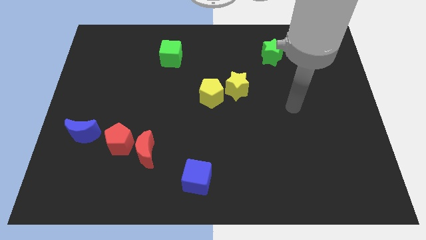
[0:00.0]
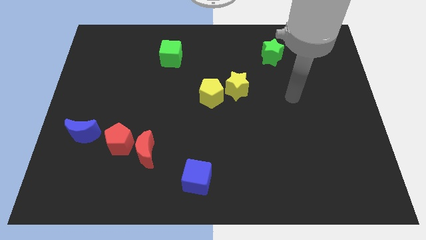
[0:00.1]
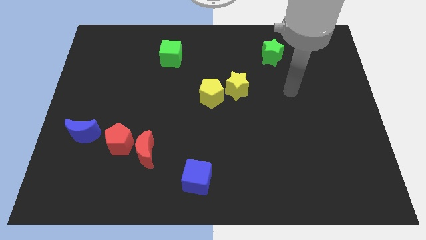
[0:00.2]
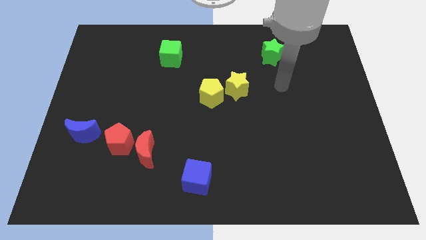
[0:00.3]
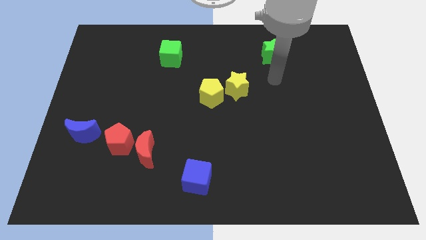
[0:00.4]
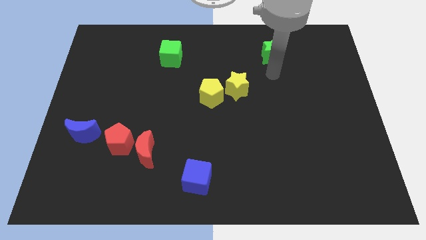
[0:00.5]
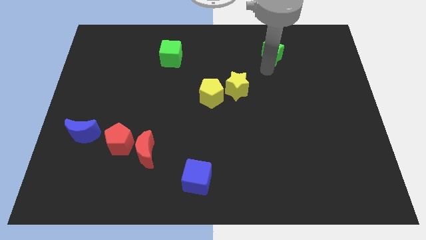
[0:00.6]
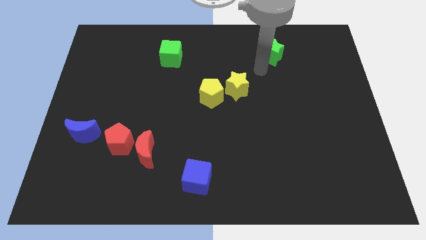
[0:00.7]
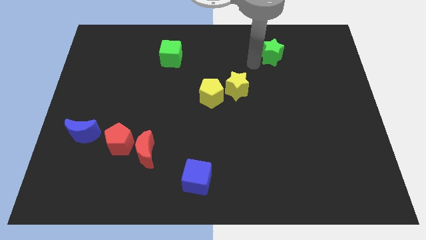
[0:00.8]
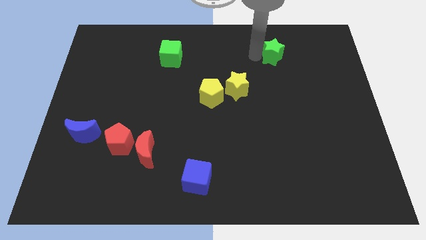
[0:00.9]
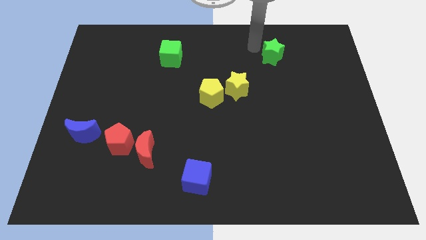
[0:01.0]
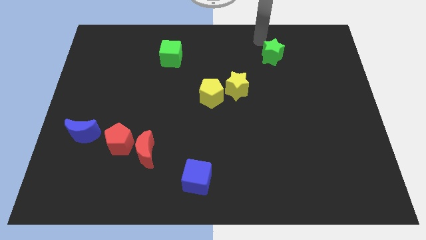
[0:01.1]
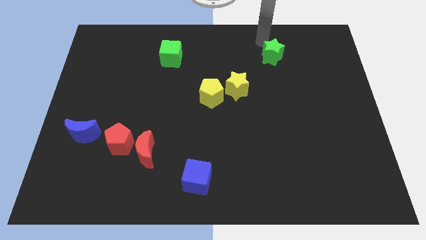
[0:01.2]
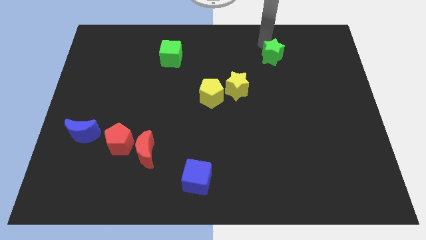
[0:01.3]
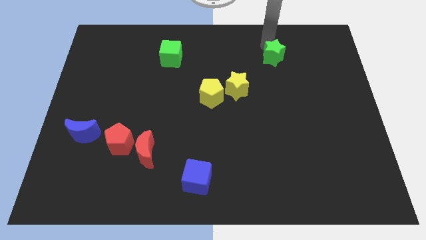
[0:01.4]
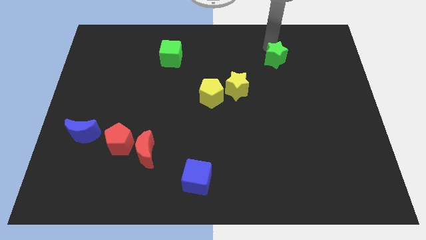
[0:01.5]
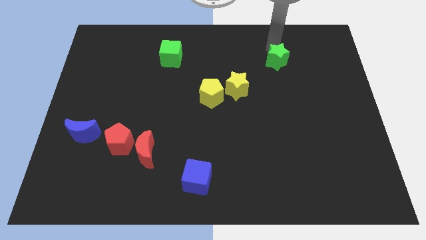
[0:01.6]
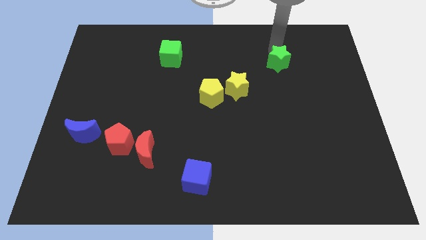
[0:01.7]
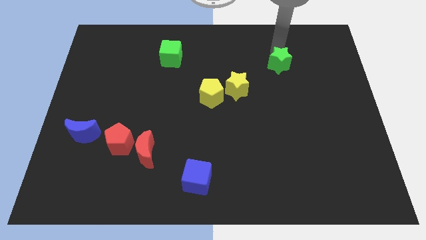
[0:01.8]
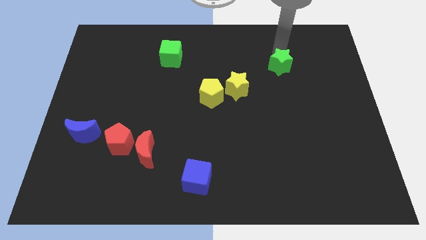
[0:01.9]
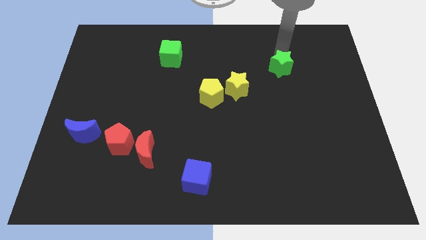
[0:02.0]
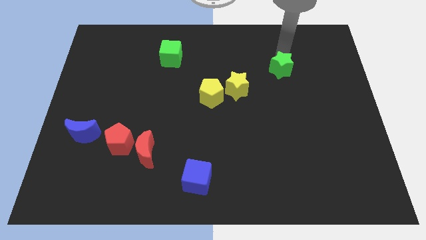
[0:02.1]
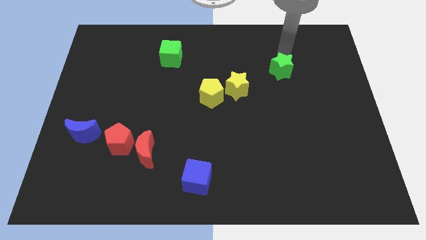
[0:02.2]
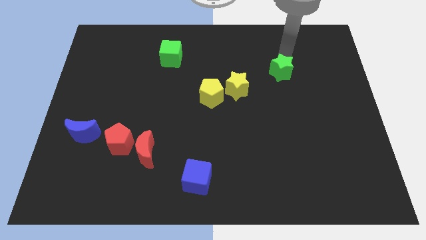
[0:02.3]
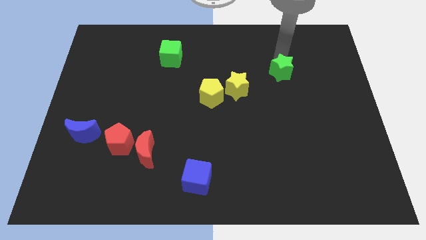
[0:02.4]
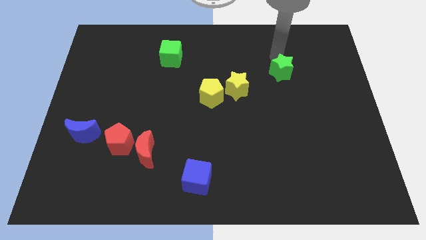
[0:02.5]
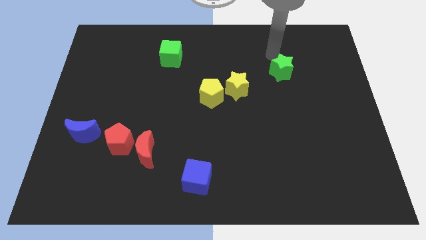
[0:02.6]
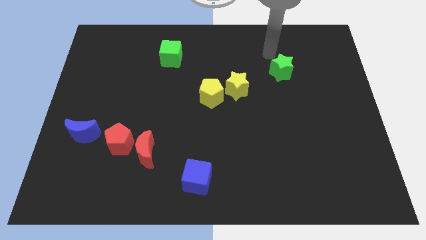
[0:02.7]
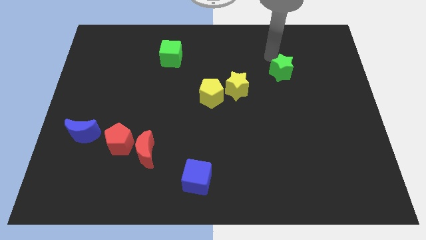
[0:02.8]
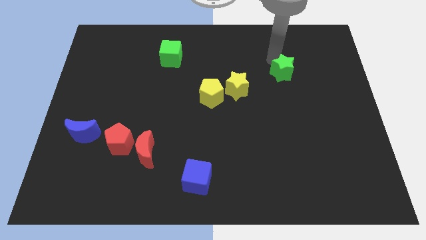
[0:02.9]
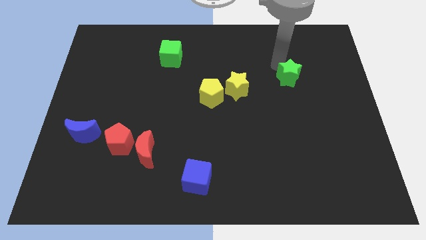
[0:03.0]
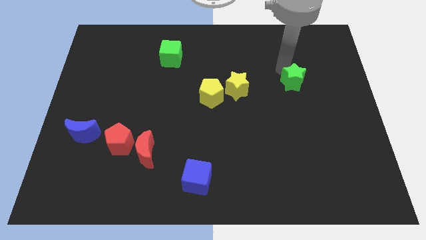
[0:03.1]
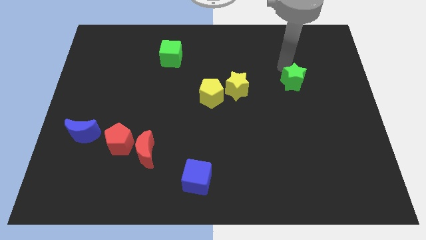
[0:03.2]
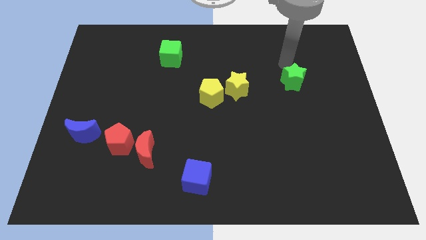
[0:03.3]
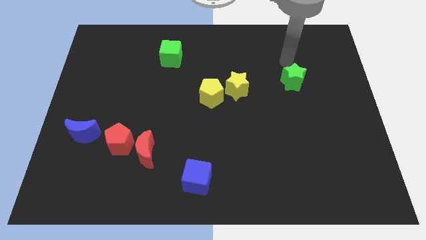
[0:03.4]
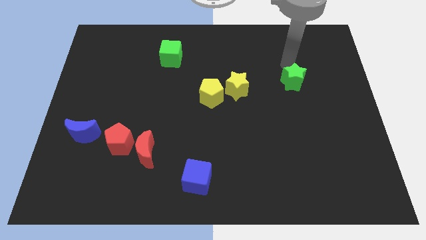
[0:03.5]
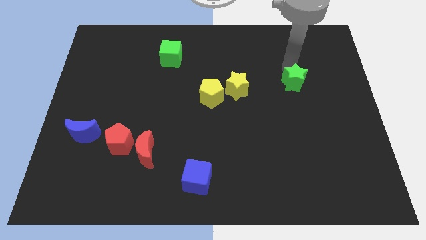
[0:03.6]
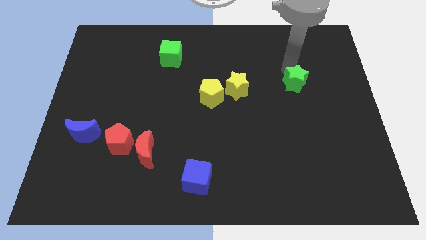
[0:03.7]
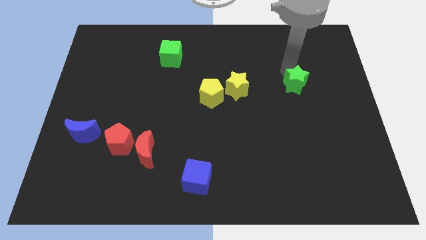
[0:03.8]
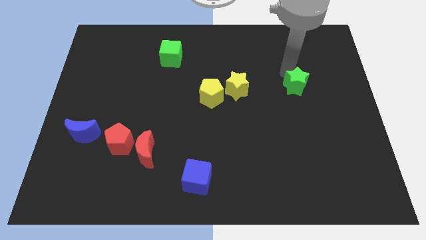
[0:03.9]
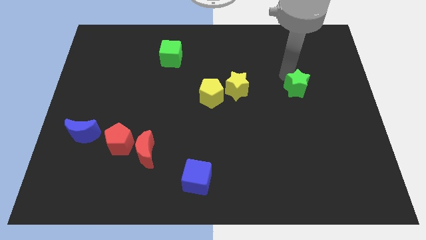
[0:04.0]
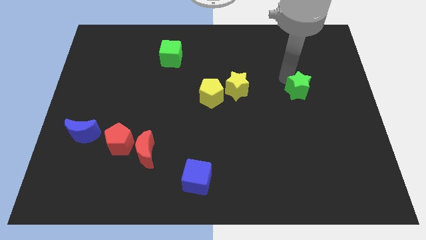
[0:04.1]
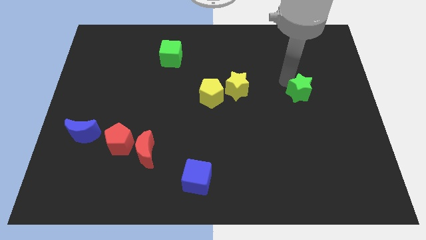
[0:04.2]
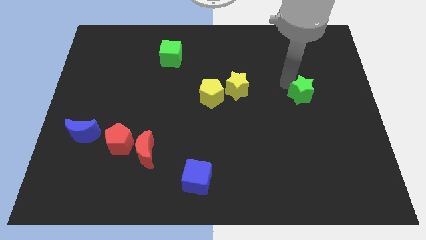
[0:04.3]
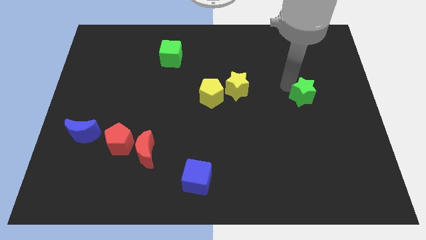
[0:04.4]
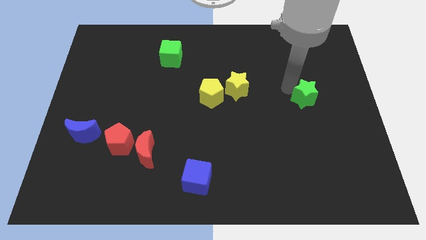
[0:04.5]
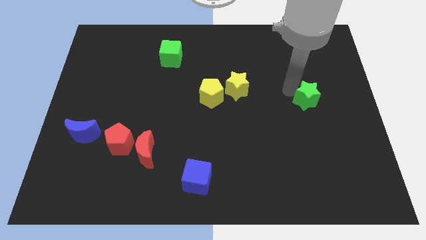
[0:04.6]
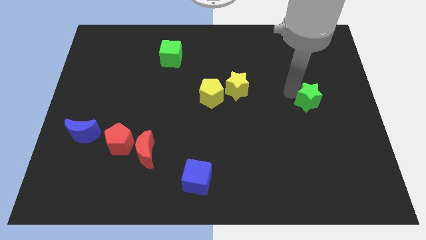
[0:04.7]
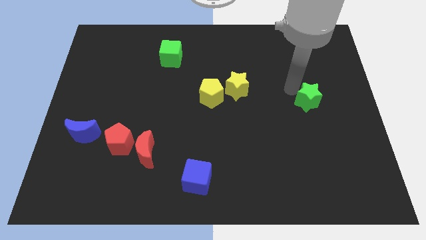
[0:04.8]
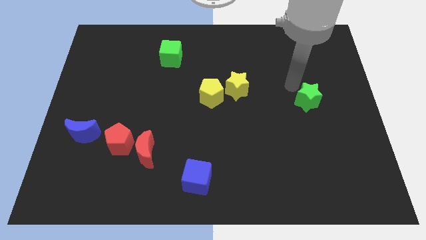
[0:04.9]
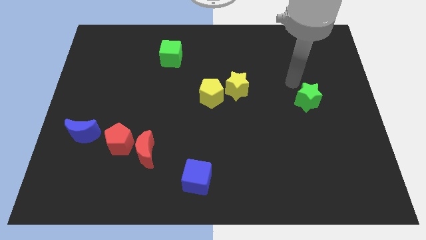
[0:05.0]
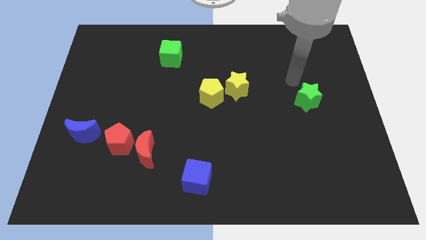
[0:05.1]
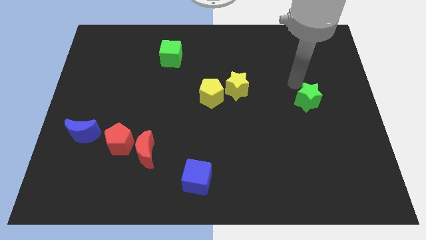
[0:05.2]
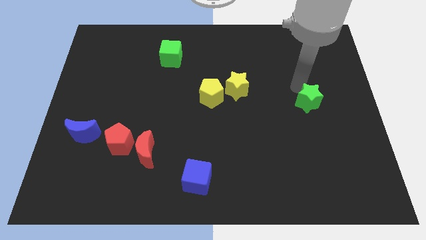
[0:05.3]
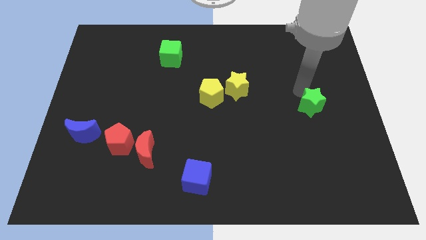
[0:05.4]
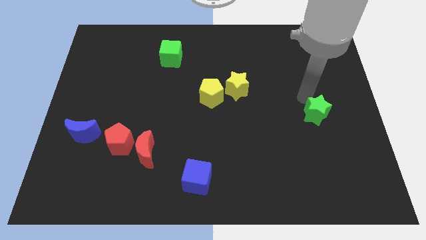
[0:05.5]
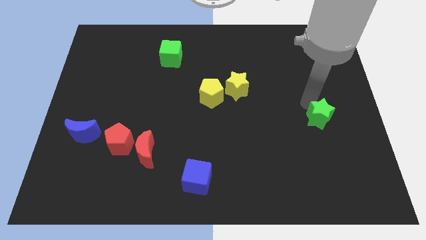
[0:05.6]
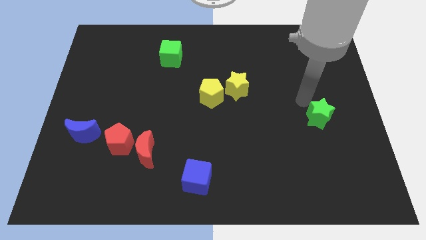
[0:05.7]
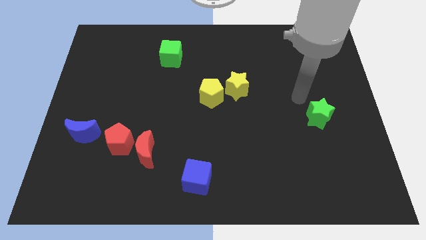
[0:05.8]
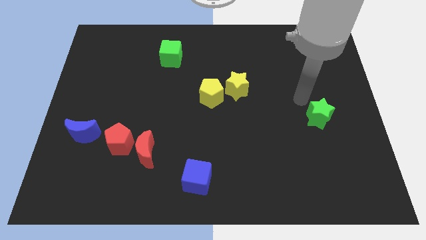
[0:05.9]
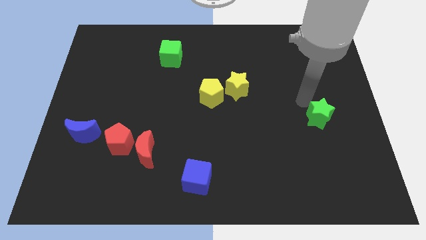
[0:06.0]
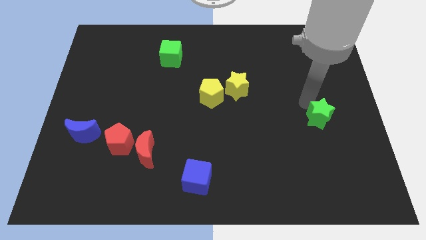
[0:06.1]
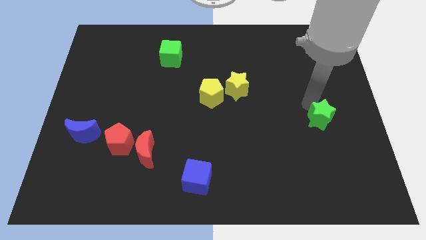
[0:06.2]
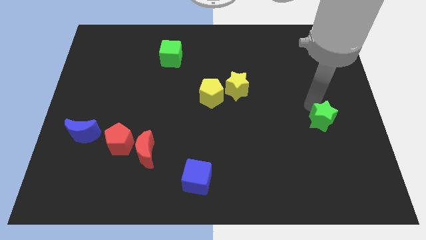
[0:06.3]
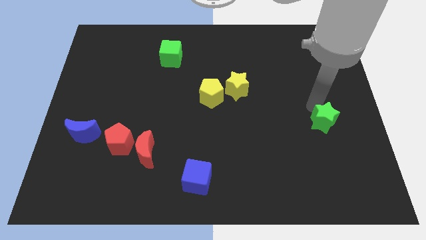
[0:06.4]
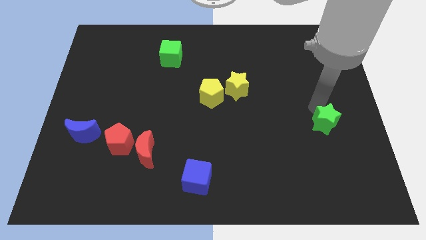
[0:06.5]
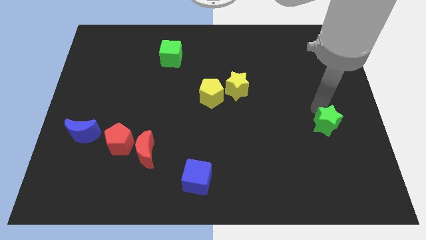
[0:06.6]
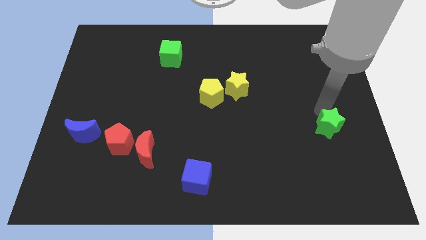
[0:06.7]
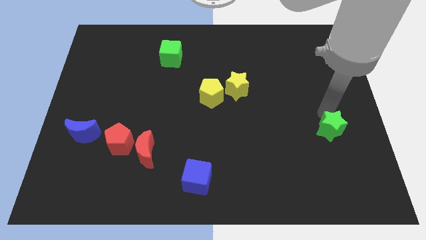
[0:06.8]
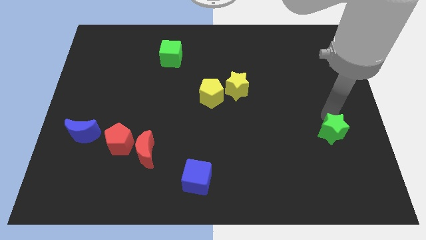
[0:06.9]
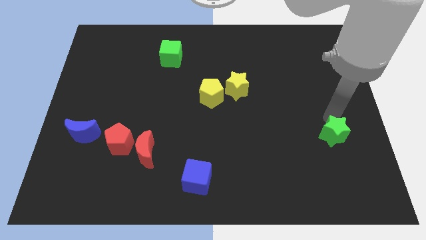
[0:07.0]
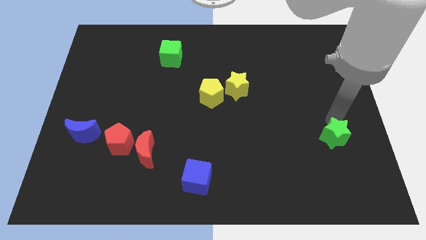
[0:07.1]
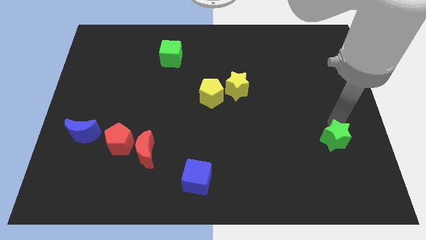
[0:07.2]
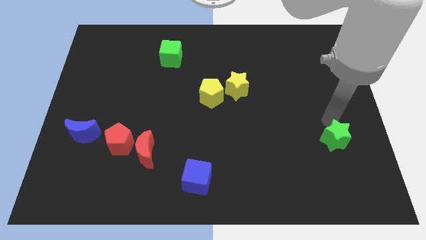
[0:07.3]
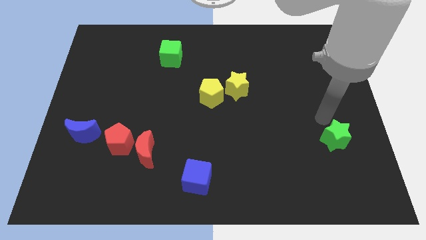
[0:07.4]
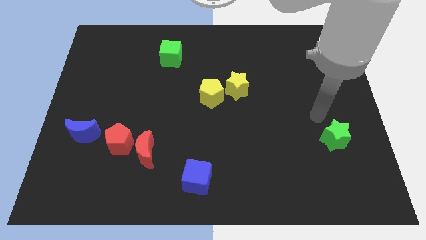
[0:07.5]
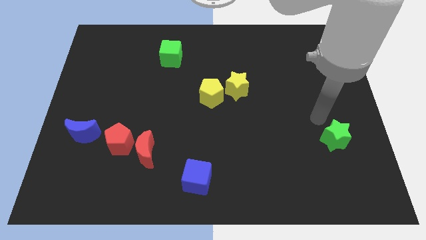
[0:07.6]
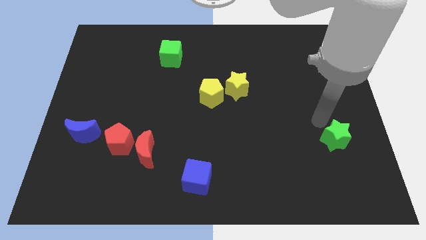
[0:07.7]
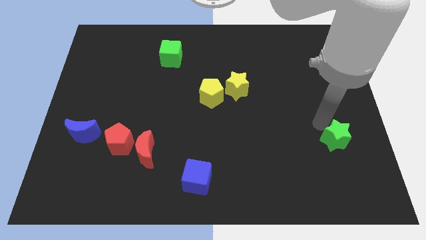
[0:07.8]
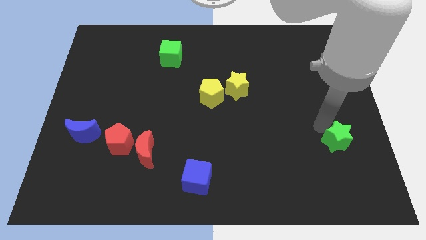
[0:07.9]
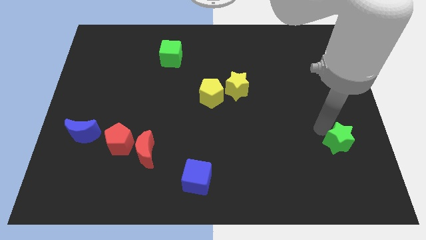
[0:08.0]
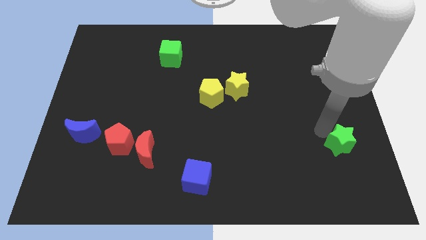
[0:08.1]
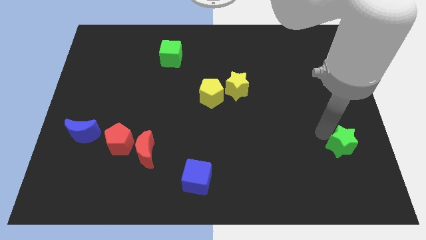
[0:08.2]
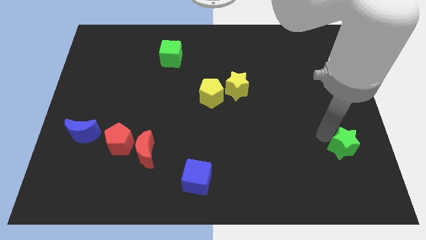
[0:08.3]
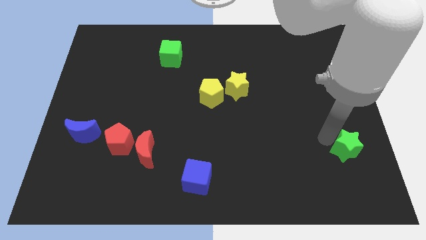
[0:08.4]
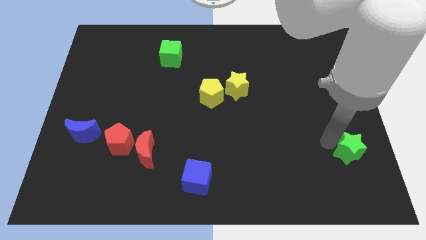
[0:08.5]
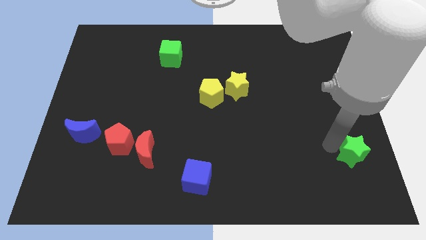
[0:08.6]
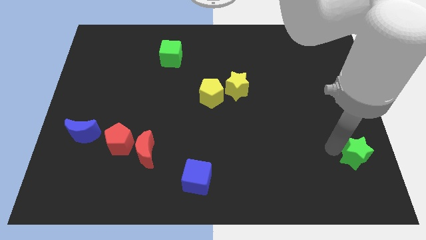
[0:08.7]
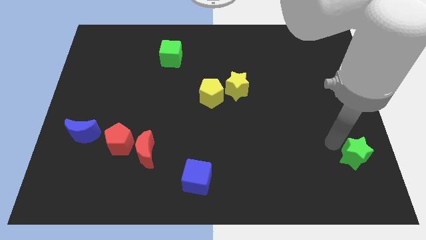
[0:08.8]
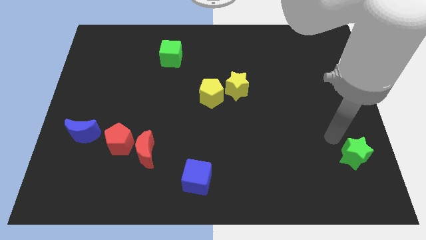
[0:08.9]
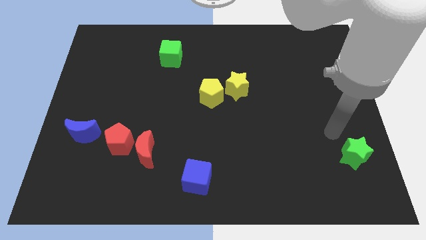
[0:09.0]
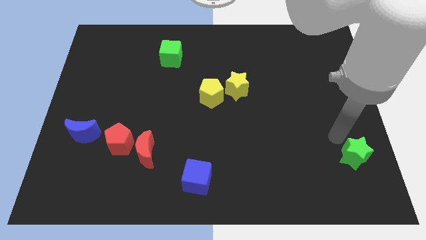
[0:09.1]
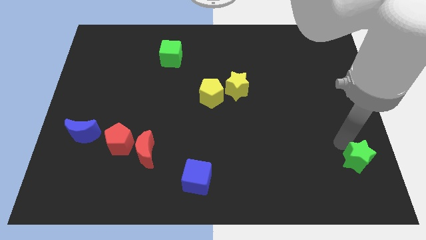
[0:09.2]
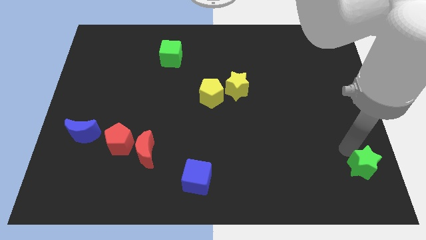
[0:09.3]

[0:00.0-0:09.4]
push the green star to the bottom right corner
